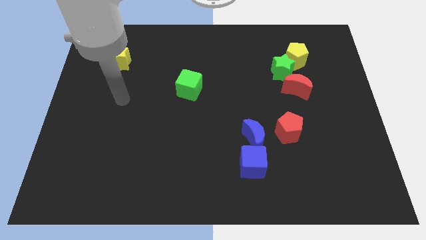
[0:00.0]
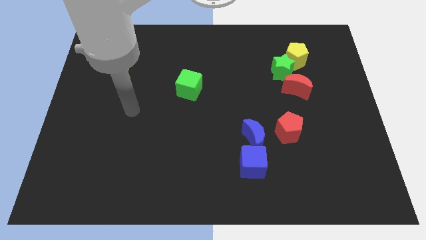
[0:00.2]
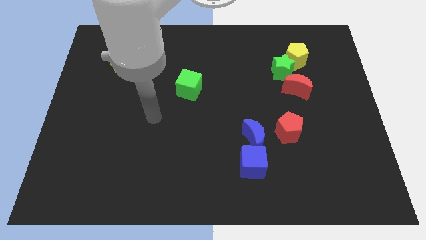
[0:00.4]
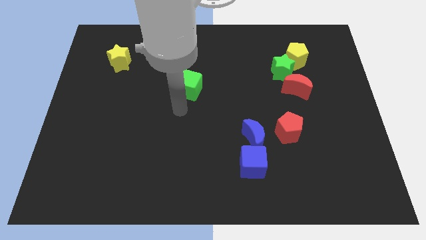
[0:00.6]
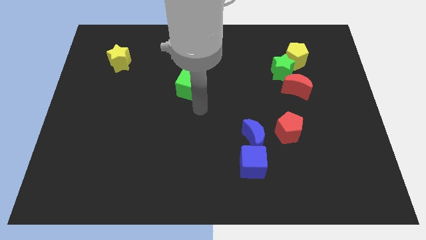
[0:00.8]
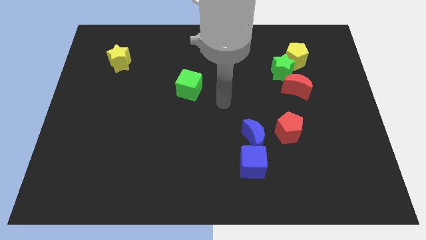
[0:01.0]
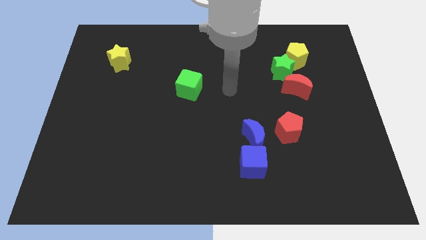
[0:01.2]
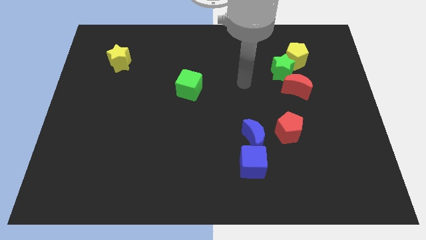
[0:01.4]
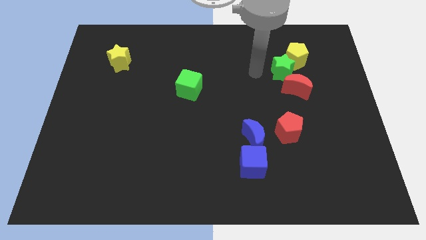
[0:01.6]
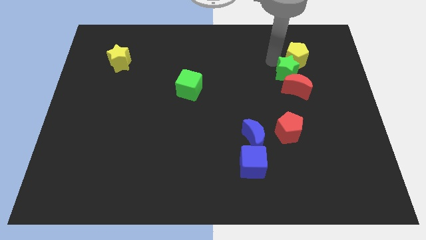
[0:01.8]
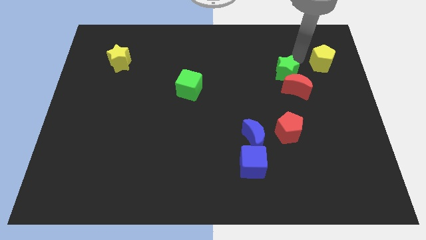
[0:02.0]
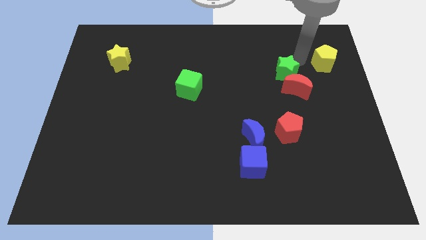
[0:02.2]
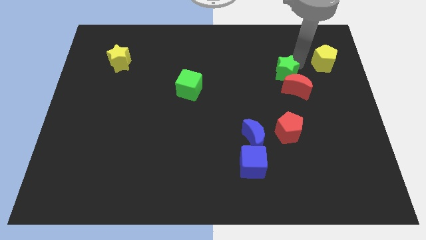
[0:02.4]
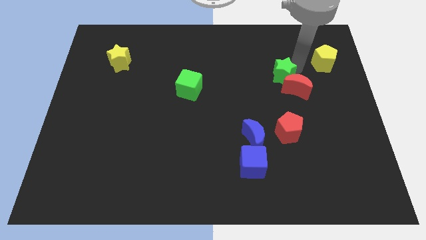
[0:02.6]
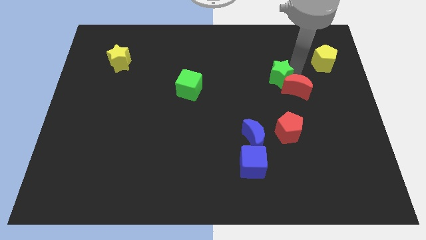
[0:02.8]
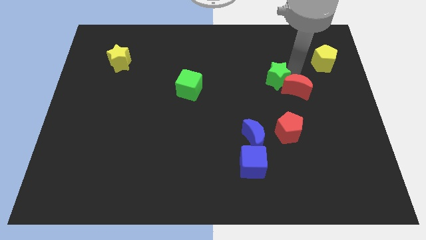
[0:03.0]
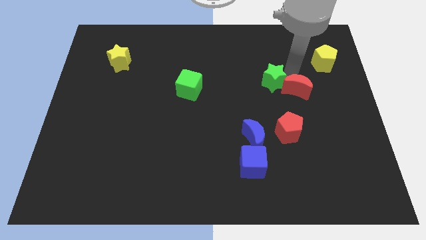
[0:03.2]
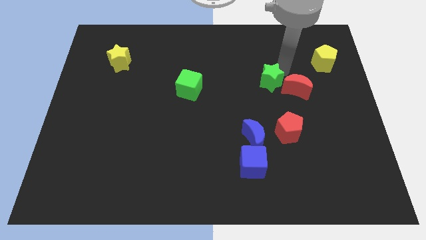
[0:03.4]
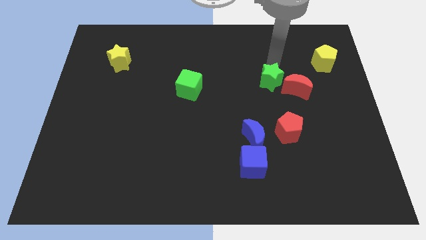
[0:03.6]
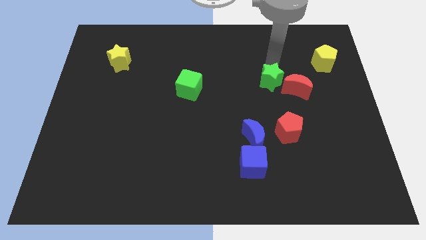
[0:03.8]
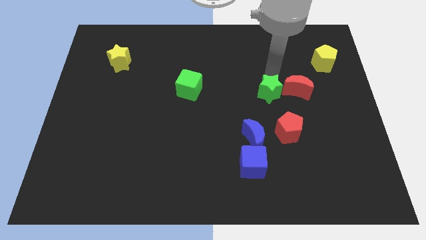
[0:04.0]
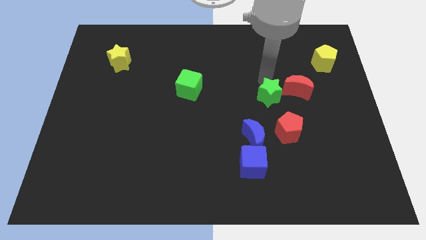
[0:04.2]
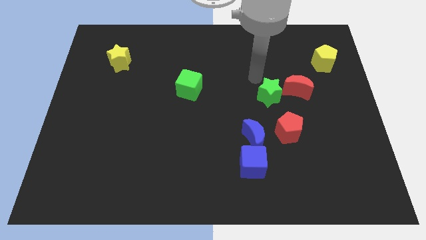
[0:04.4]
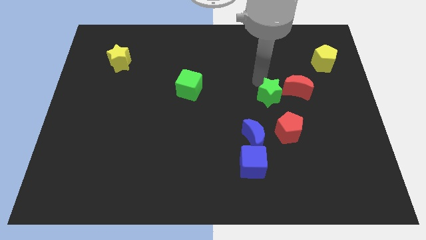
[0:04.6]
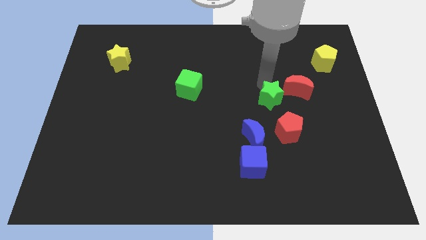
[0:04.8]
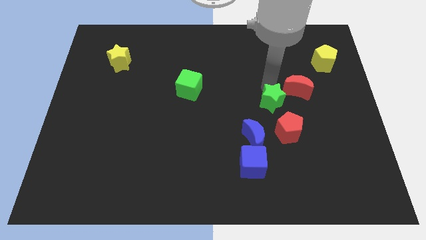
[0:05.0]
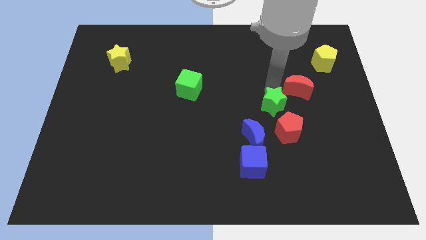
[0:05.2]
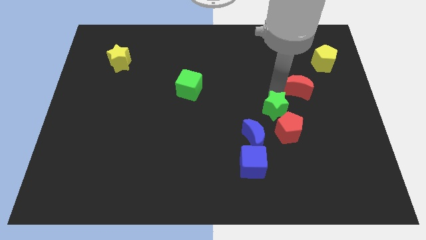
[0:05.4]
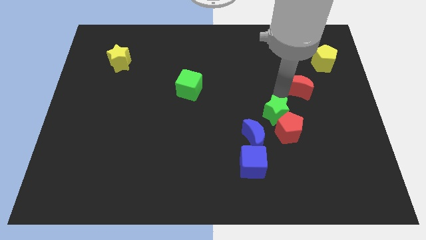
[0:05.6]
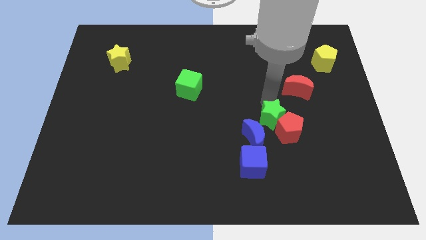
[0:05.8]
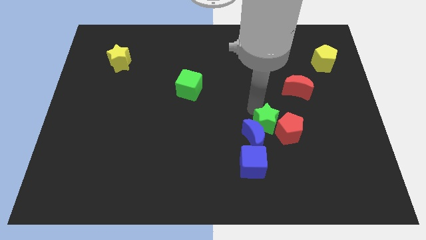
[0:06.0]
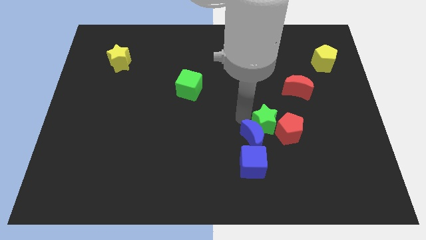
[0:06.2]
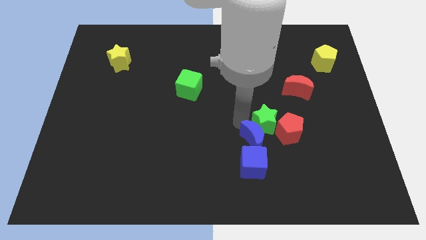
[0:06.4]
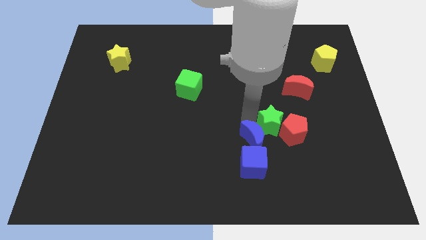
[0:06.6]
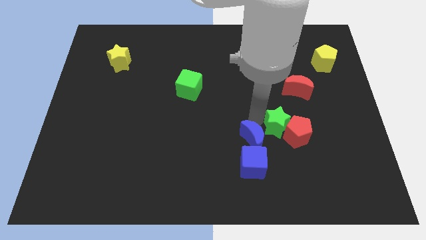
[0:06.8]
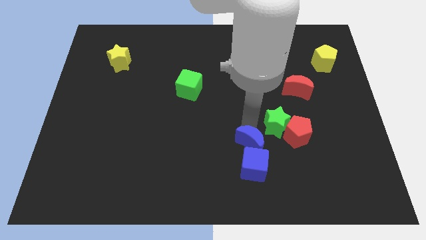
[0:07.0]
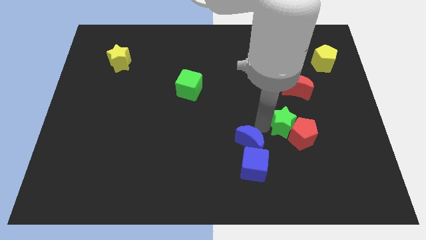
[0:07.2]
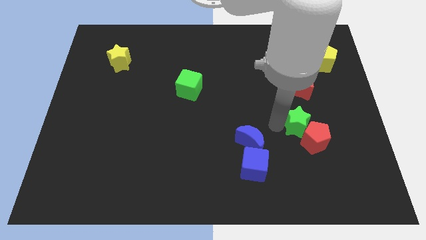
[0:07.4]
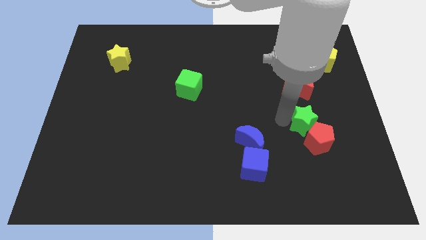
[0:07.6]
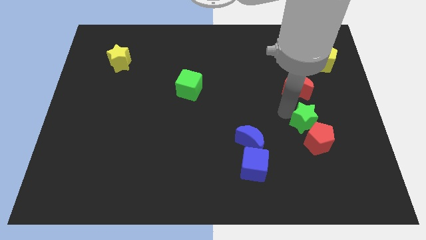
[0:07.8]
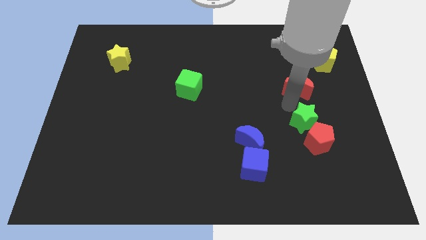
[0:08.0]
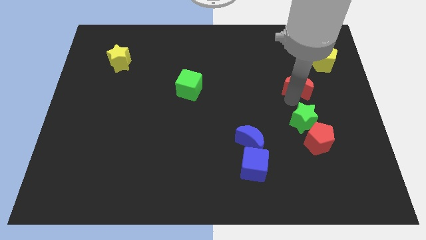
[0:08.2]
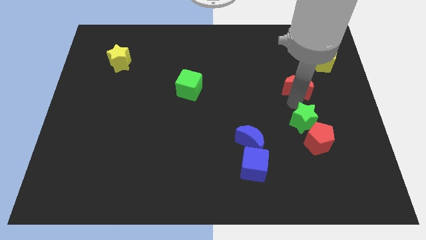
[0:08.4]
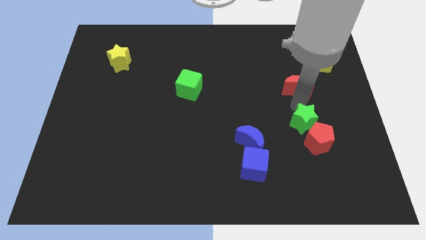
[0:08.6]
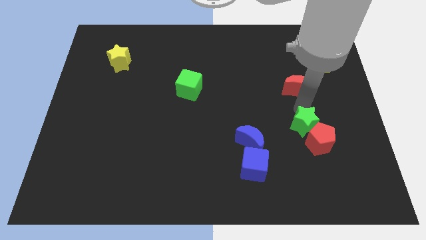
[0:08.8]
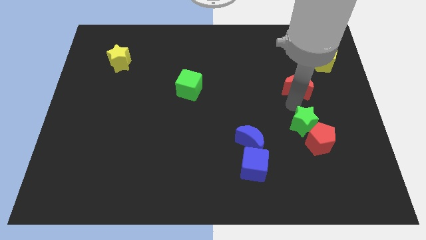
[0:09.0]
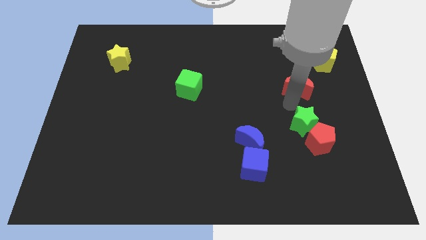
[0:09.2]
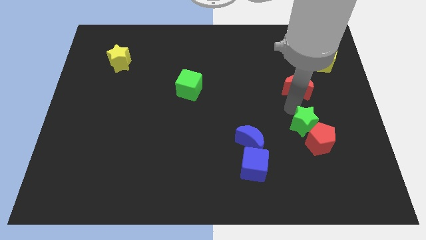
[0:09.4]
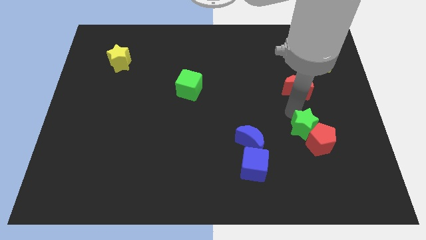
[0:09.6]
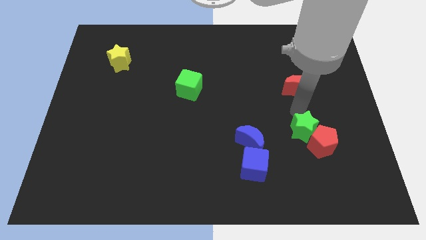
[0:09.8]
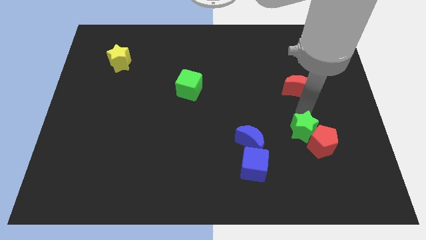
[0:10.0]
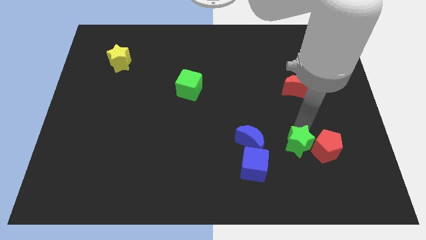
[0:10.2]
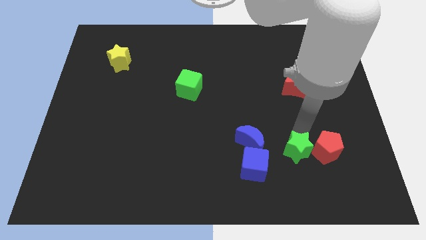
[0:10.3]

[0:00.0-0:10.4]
move the green star right of the blue cube
